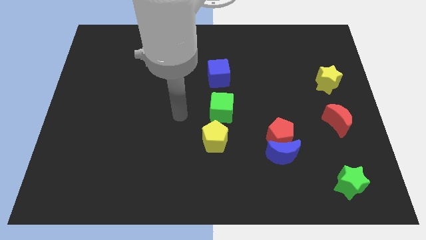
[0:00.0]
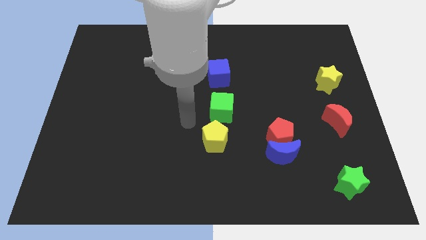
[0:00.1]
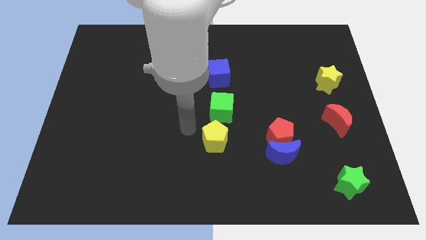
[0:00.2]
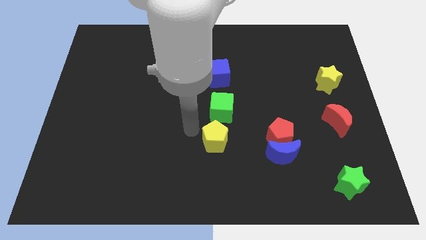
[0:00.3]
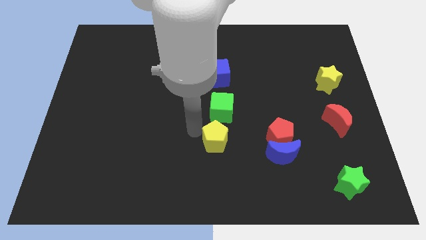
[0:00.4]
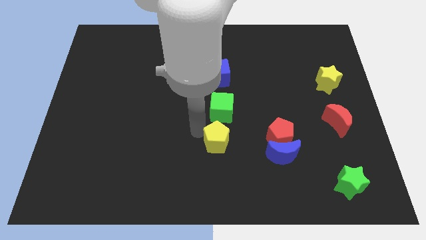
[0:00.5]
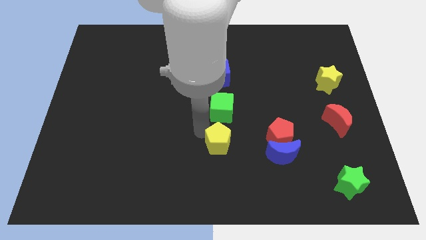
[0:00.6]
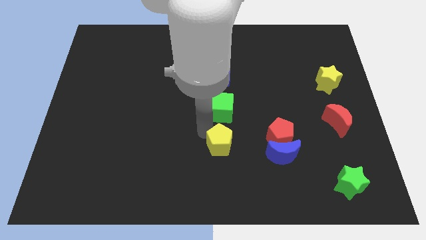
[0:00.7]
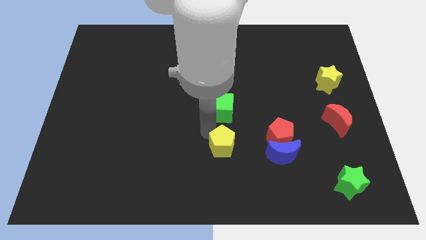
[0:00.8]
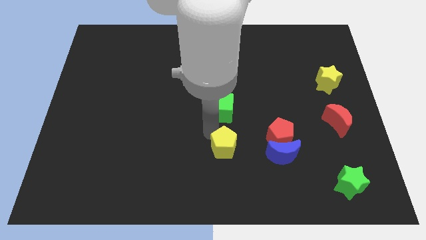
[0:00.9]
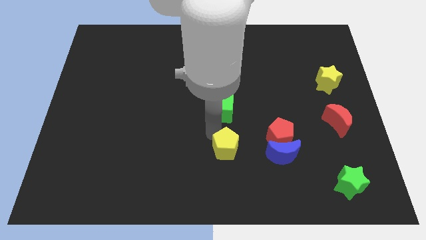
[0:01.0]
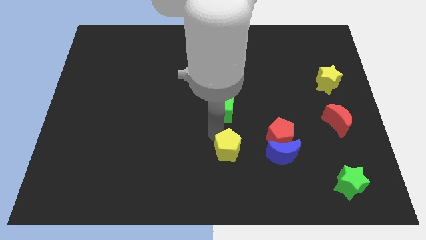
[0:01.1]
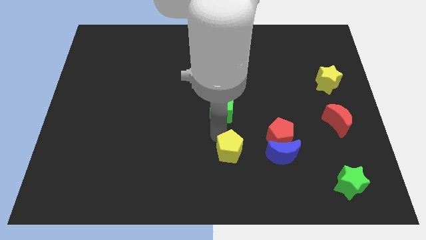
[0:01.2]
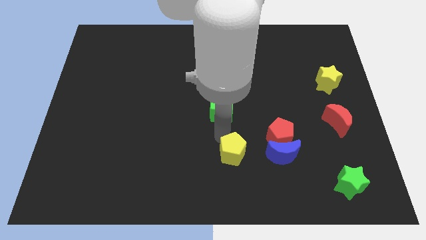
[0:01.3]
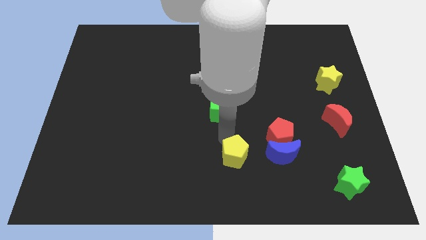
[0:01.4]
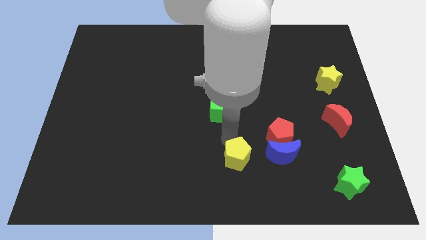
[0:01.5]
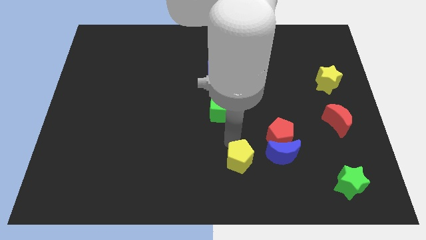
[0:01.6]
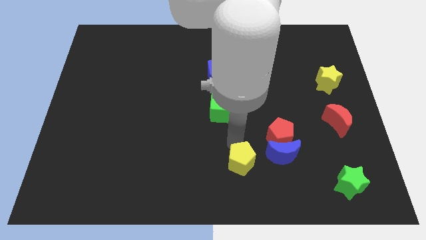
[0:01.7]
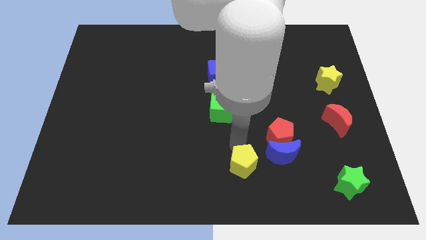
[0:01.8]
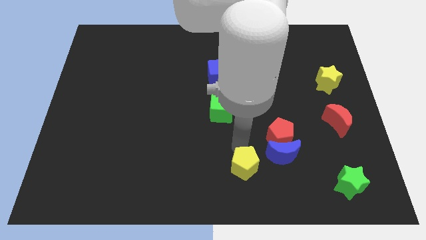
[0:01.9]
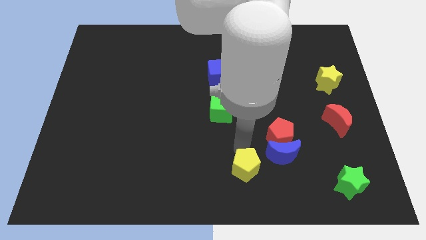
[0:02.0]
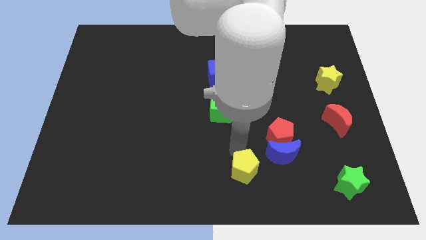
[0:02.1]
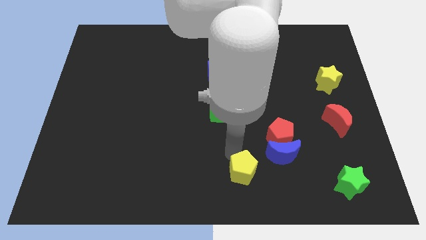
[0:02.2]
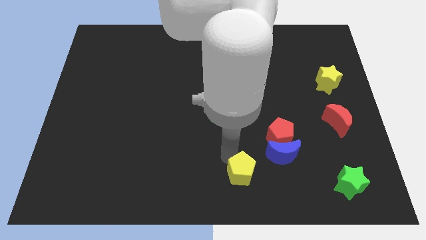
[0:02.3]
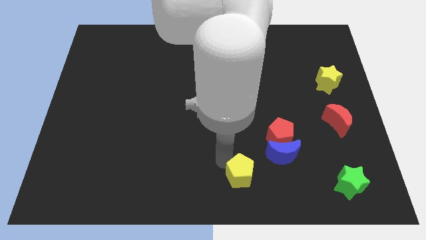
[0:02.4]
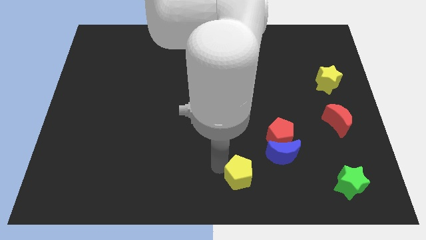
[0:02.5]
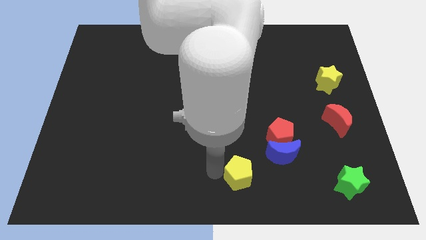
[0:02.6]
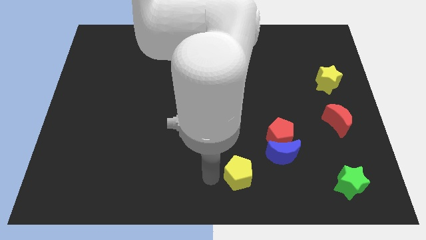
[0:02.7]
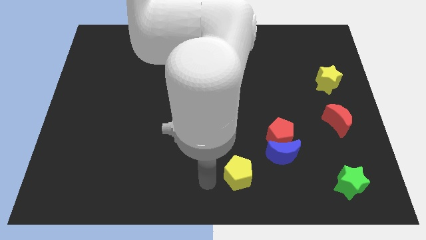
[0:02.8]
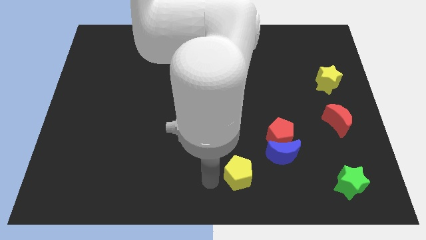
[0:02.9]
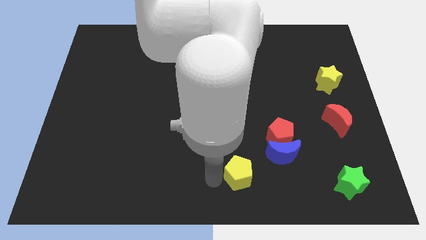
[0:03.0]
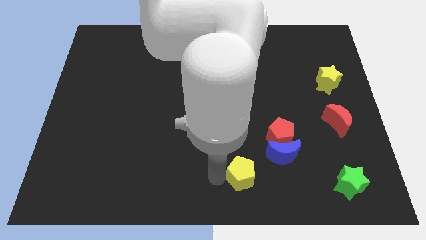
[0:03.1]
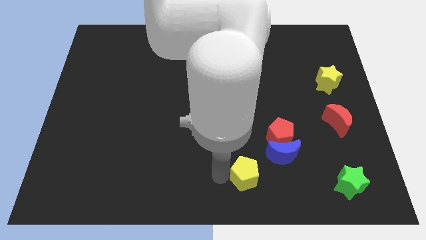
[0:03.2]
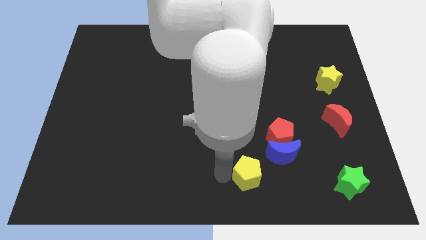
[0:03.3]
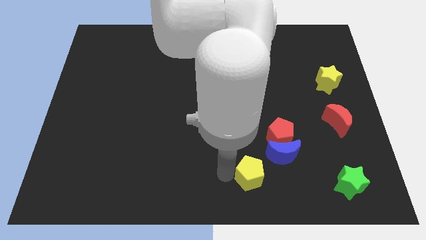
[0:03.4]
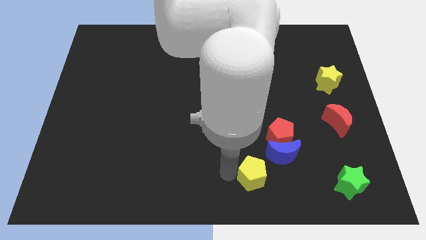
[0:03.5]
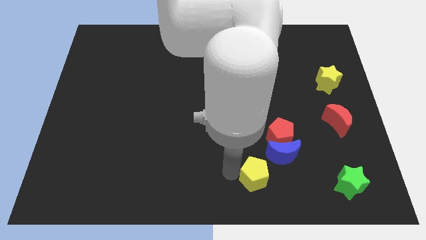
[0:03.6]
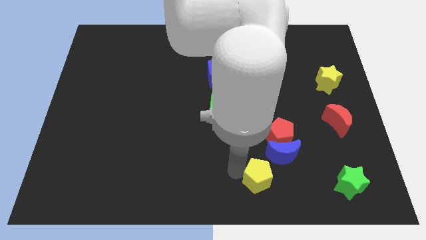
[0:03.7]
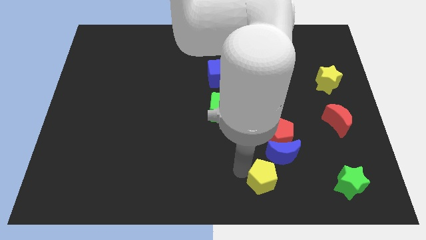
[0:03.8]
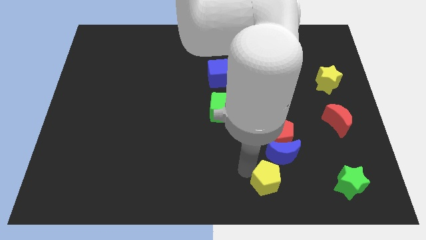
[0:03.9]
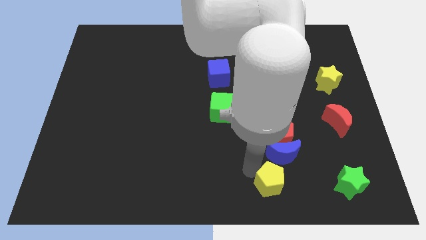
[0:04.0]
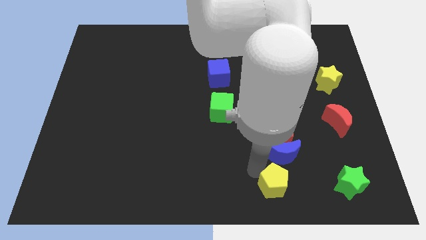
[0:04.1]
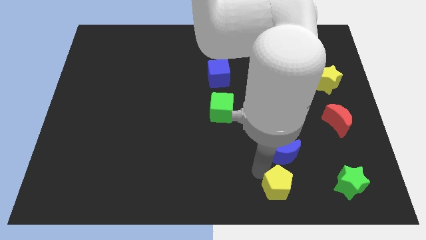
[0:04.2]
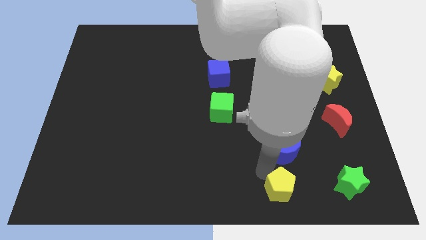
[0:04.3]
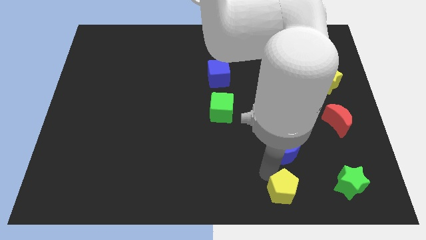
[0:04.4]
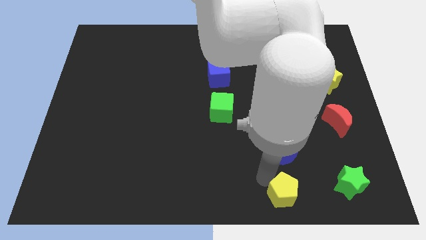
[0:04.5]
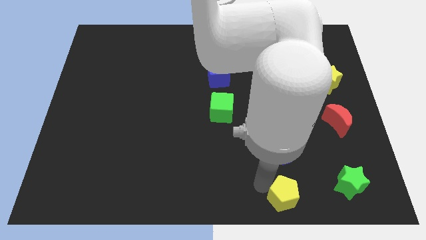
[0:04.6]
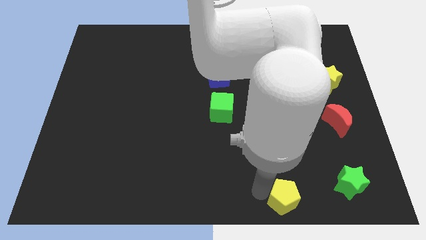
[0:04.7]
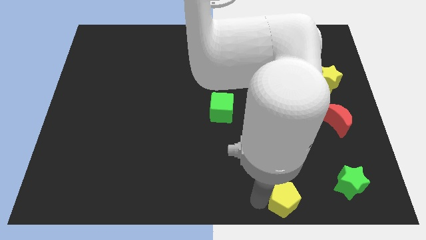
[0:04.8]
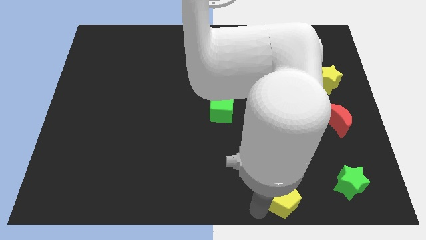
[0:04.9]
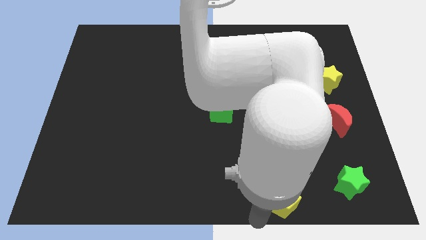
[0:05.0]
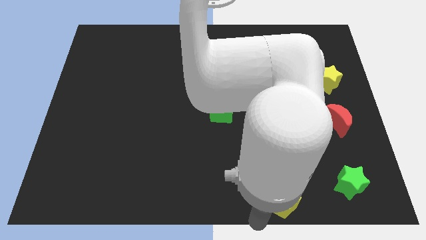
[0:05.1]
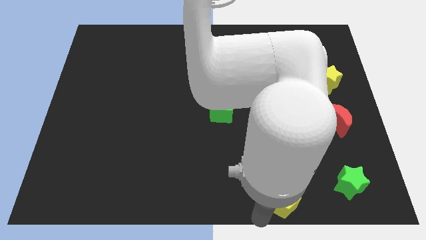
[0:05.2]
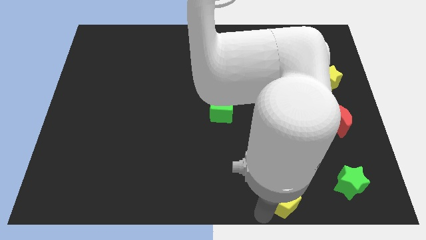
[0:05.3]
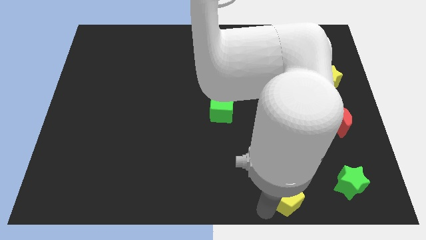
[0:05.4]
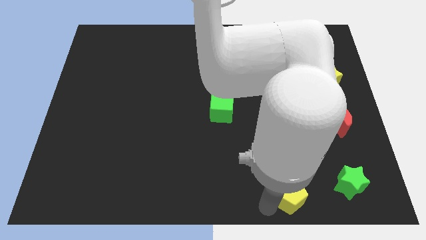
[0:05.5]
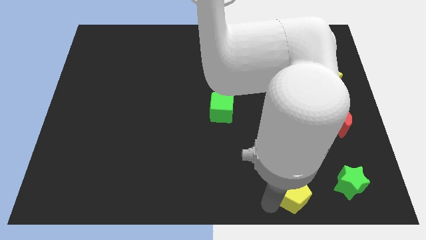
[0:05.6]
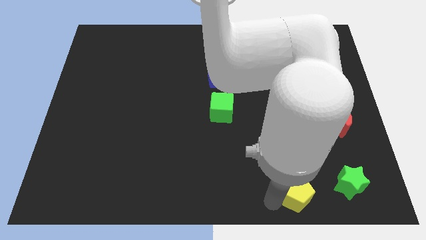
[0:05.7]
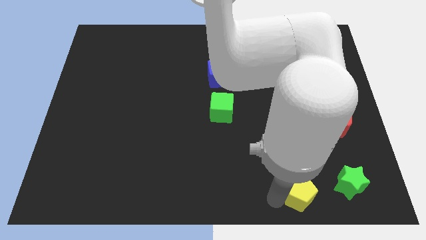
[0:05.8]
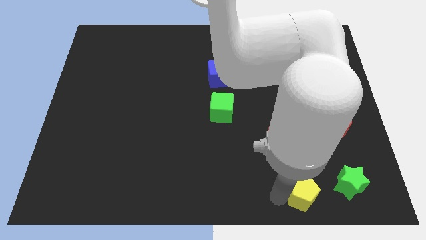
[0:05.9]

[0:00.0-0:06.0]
move the yellow pentagon to the bottom right side of the blue moon
